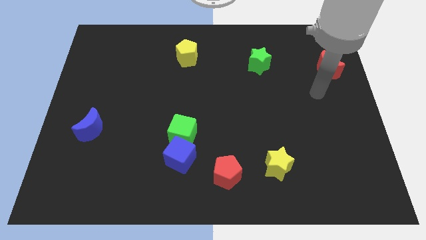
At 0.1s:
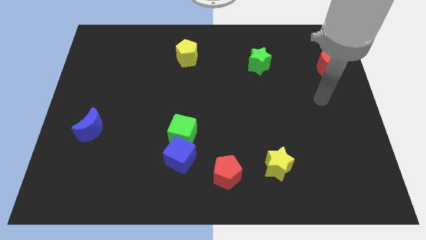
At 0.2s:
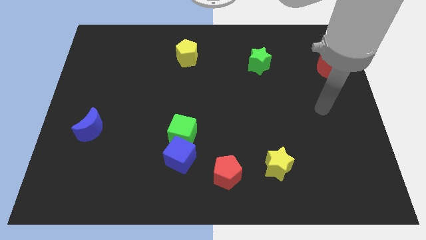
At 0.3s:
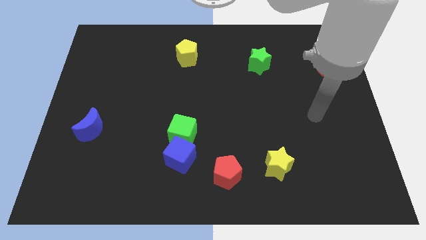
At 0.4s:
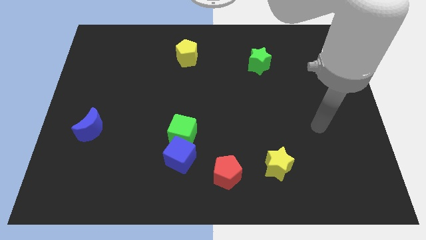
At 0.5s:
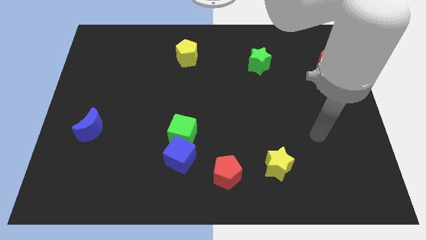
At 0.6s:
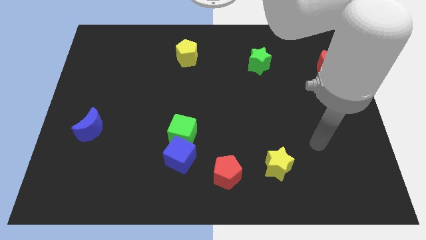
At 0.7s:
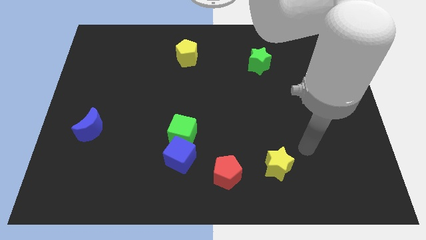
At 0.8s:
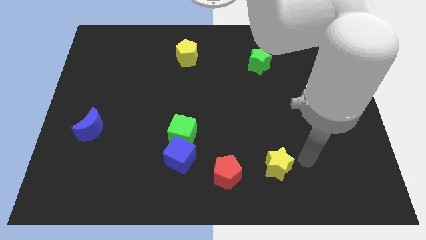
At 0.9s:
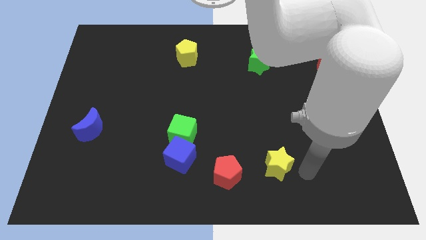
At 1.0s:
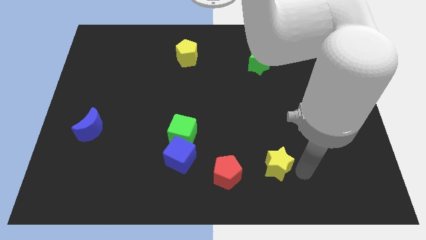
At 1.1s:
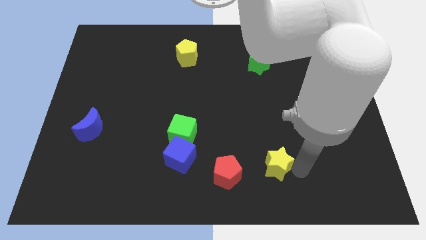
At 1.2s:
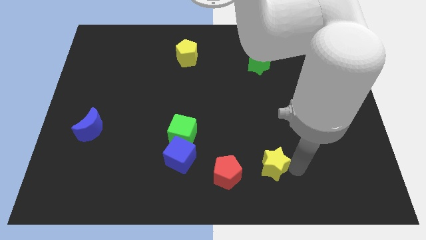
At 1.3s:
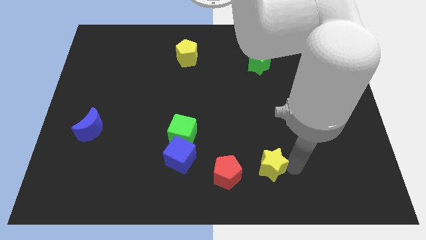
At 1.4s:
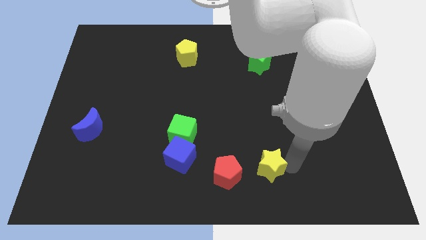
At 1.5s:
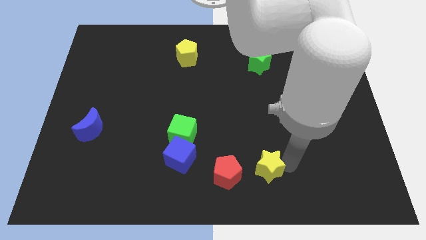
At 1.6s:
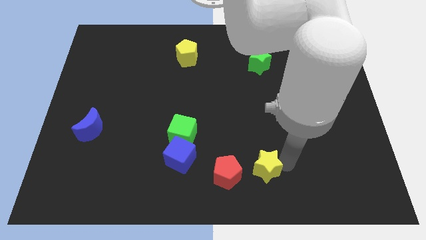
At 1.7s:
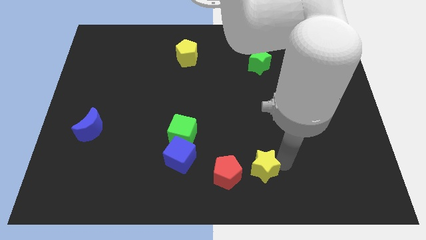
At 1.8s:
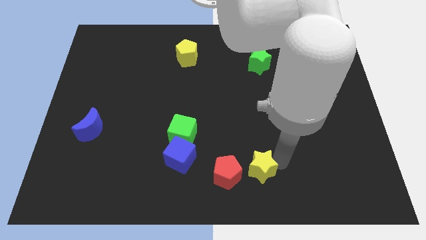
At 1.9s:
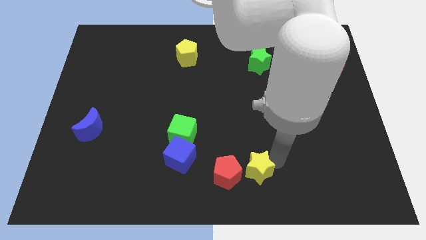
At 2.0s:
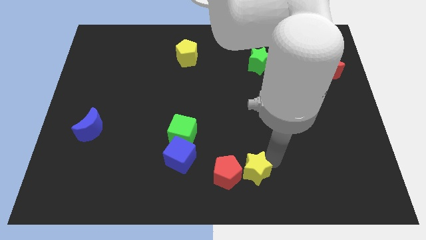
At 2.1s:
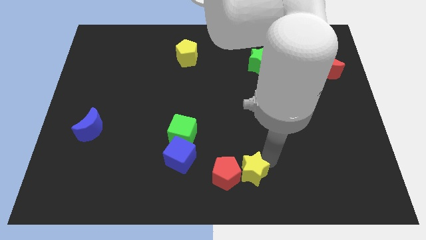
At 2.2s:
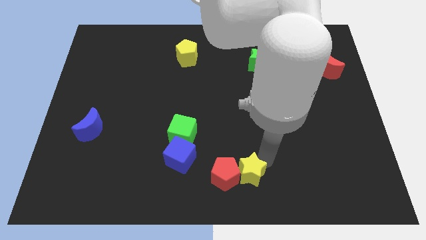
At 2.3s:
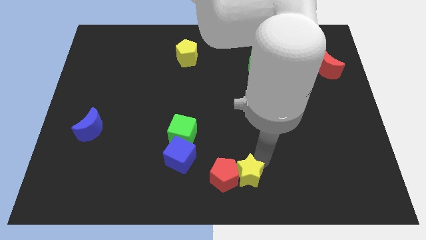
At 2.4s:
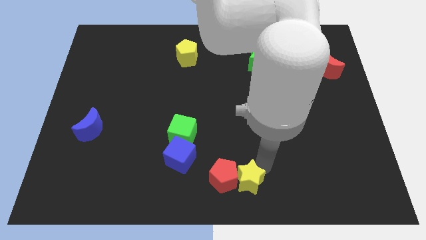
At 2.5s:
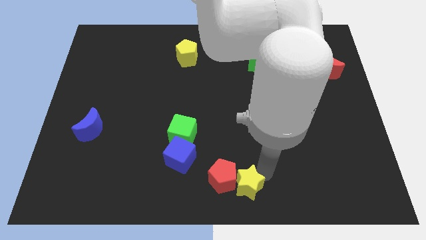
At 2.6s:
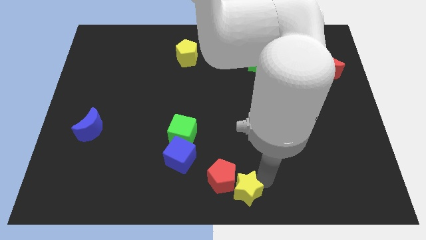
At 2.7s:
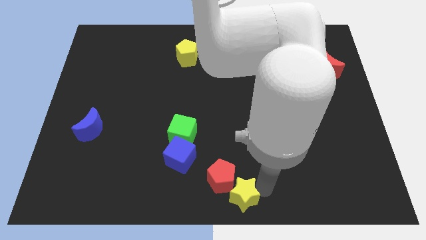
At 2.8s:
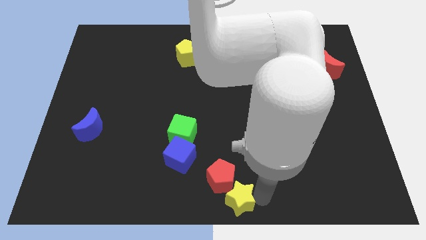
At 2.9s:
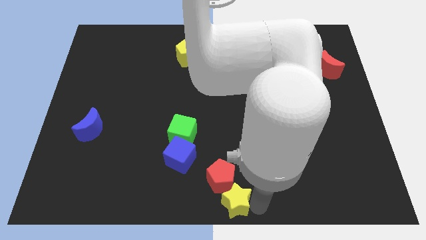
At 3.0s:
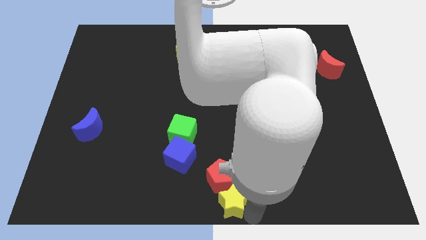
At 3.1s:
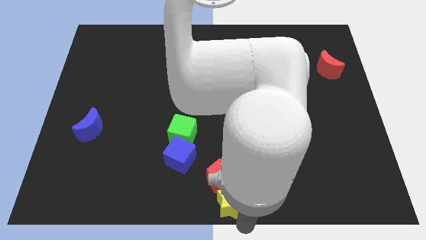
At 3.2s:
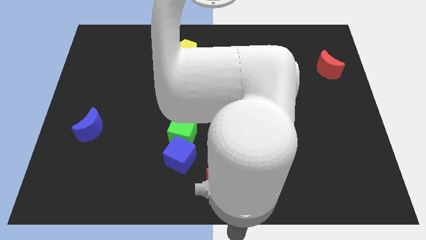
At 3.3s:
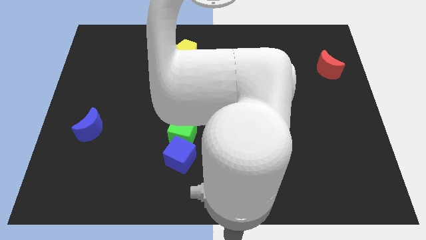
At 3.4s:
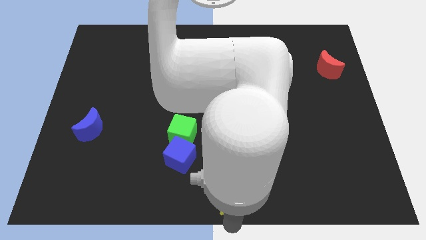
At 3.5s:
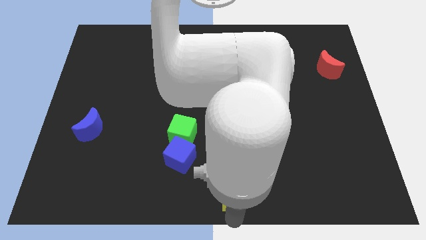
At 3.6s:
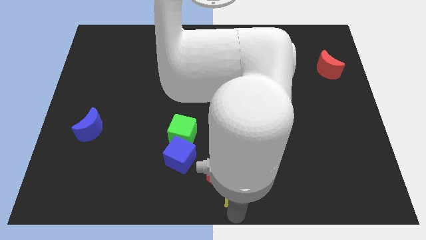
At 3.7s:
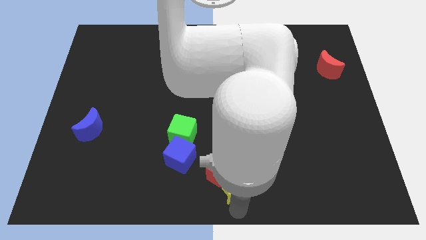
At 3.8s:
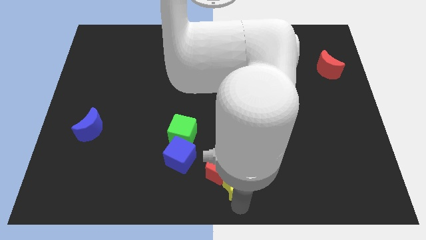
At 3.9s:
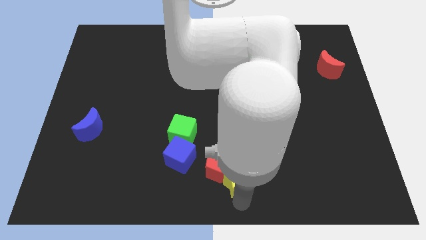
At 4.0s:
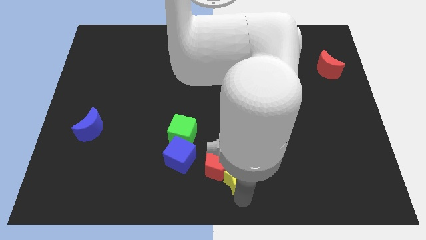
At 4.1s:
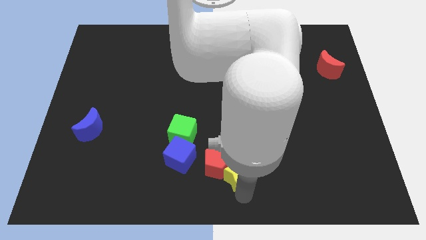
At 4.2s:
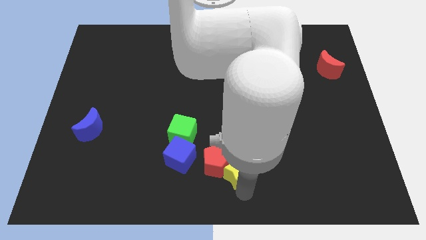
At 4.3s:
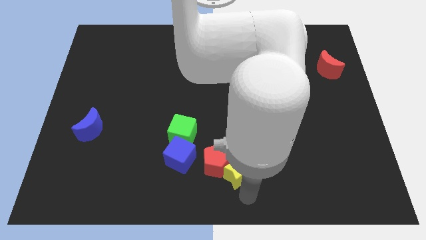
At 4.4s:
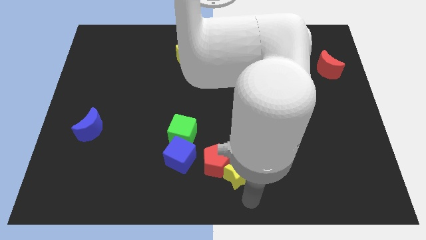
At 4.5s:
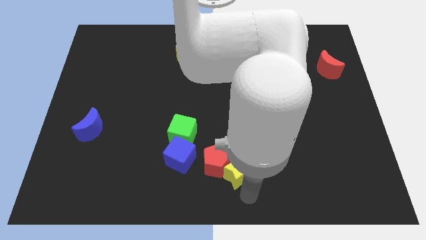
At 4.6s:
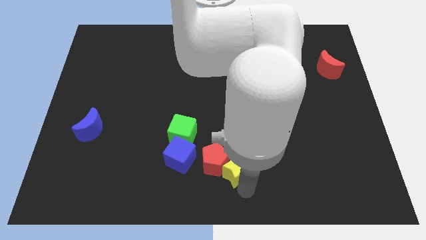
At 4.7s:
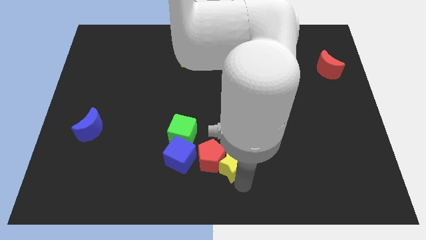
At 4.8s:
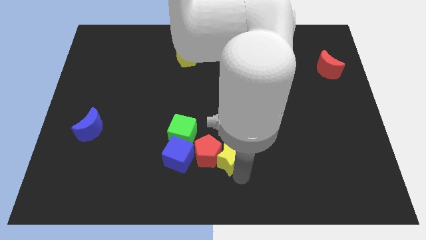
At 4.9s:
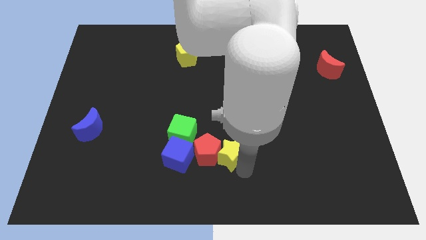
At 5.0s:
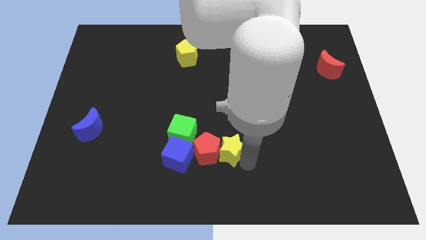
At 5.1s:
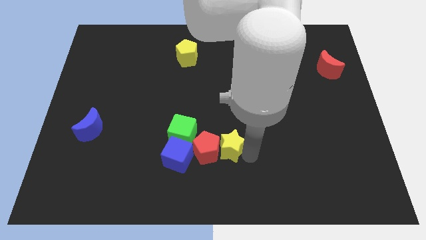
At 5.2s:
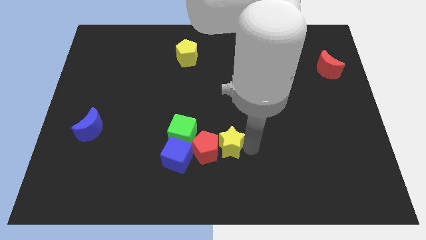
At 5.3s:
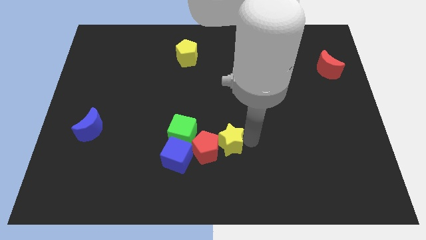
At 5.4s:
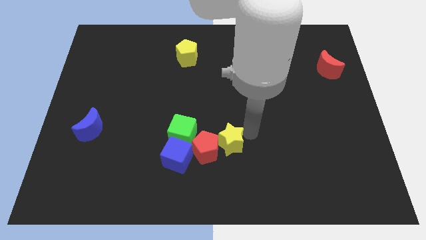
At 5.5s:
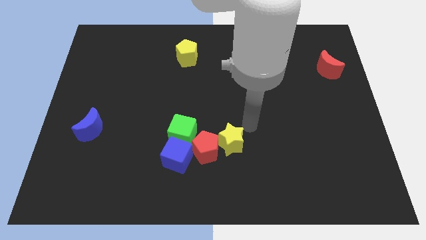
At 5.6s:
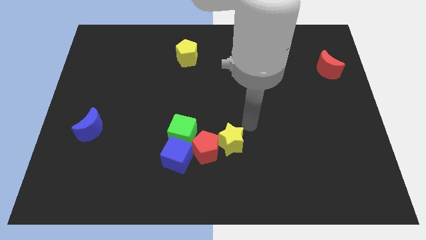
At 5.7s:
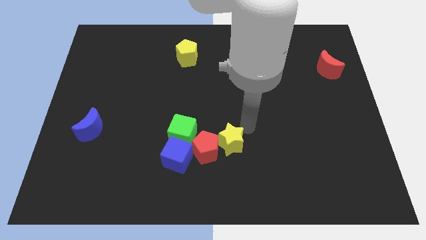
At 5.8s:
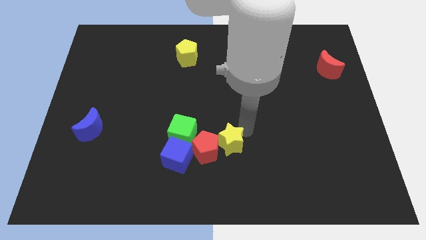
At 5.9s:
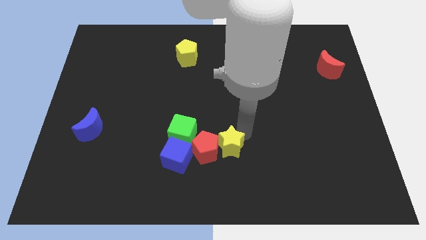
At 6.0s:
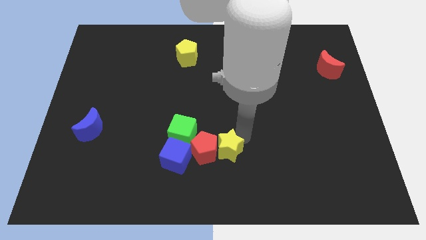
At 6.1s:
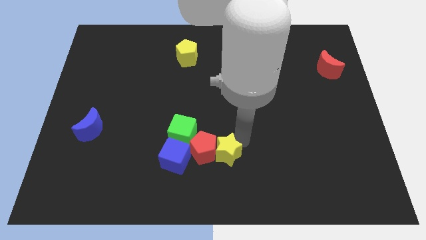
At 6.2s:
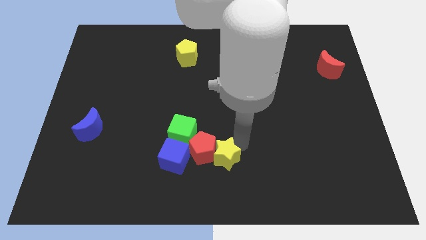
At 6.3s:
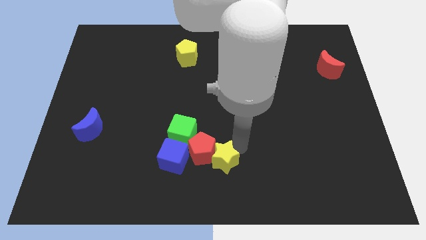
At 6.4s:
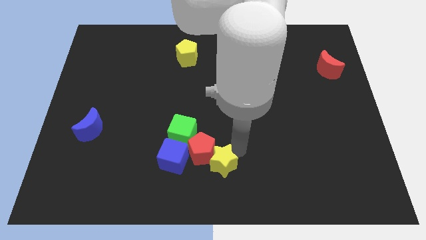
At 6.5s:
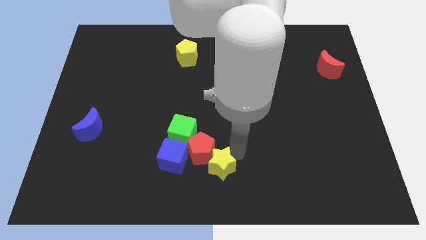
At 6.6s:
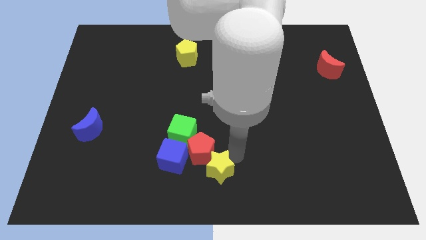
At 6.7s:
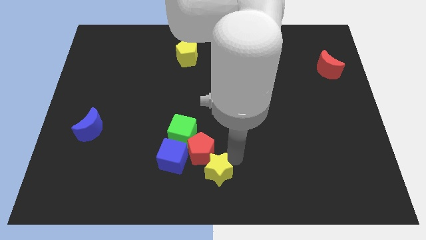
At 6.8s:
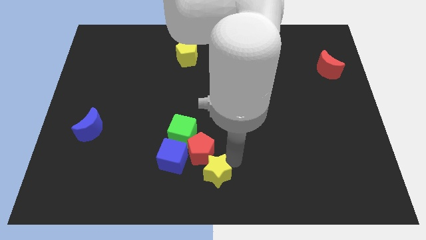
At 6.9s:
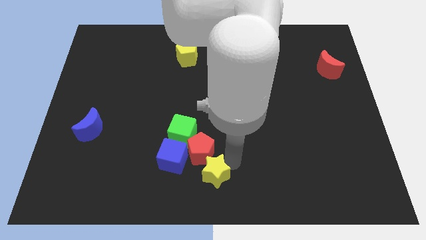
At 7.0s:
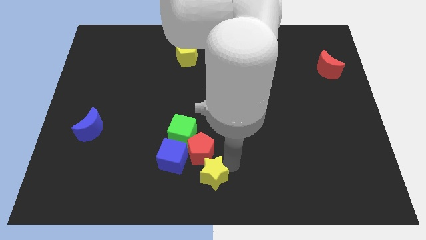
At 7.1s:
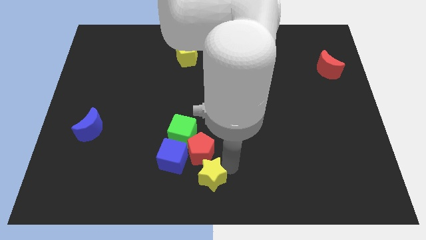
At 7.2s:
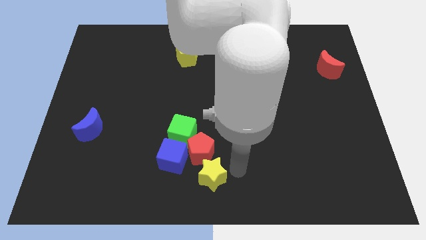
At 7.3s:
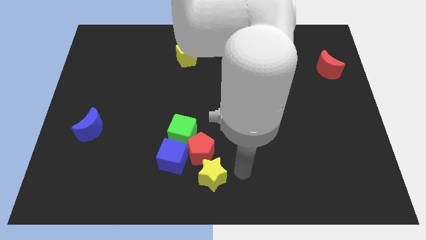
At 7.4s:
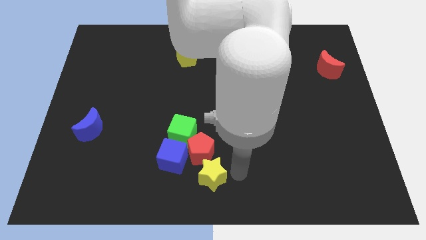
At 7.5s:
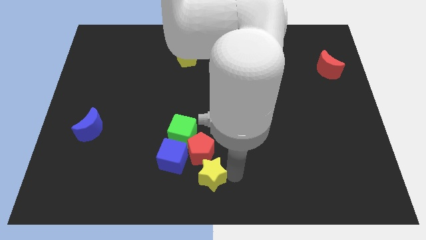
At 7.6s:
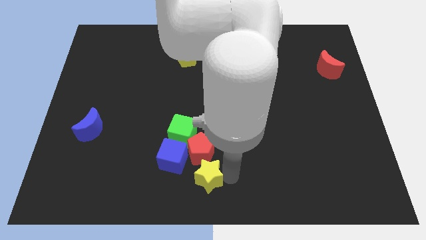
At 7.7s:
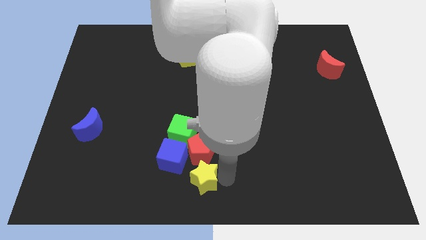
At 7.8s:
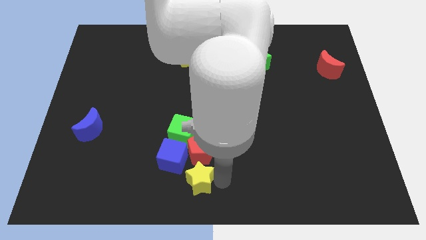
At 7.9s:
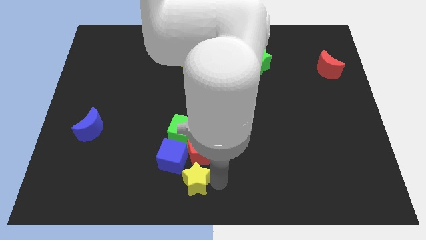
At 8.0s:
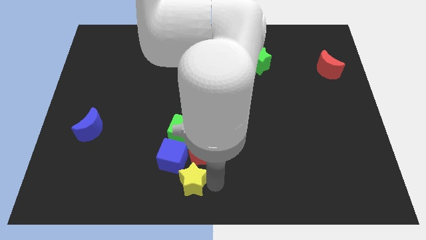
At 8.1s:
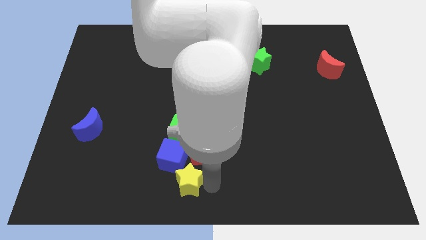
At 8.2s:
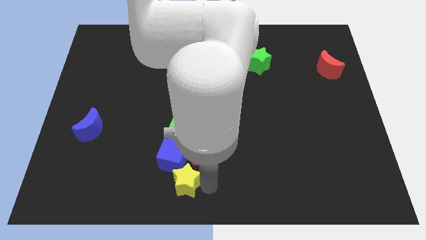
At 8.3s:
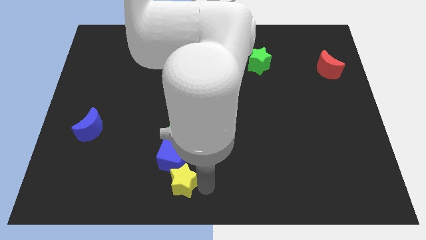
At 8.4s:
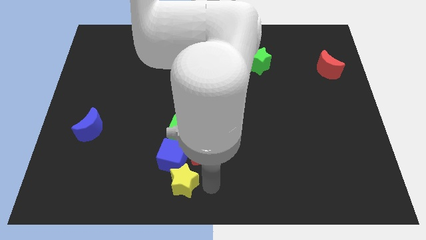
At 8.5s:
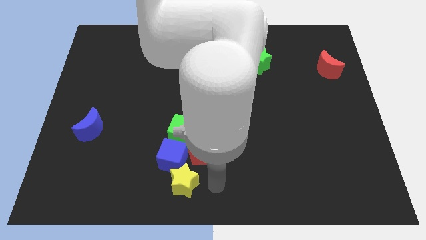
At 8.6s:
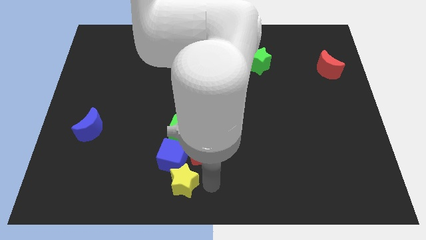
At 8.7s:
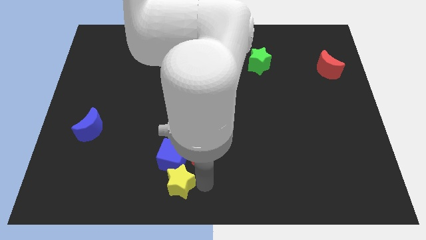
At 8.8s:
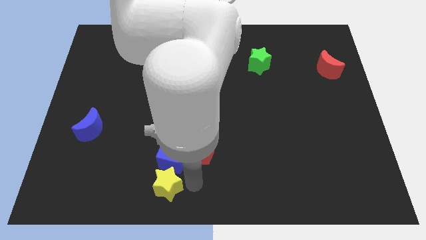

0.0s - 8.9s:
push the yellow star to the left
